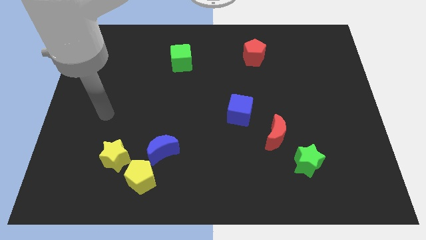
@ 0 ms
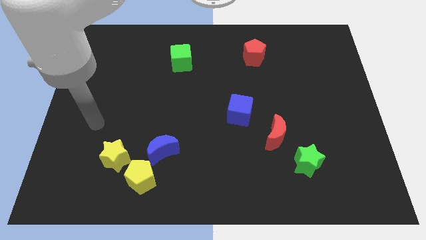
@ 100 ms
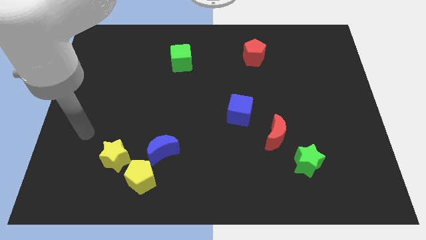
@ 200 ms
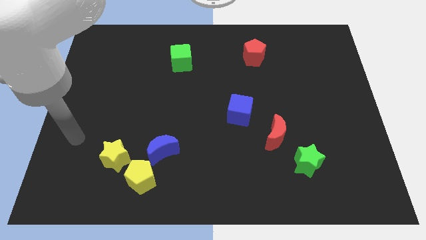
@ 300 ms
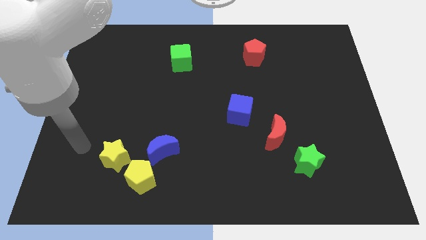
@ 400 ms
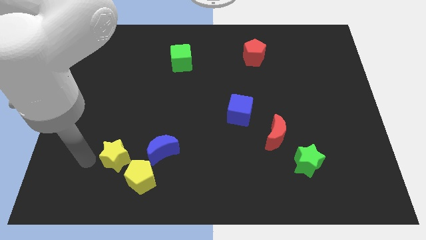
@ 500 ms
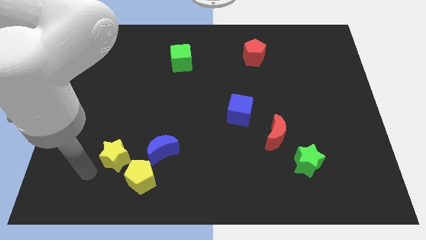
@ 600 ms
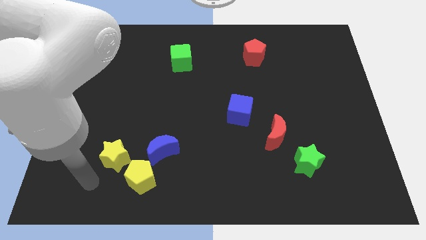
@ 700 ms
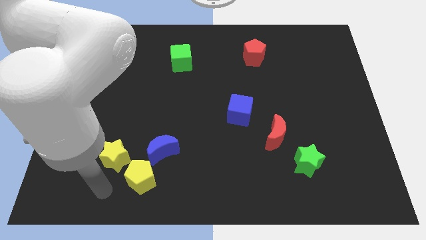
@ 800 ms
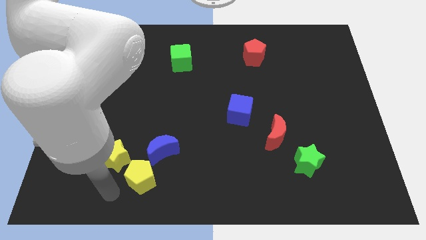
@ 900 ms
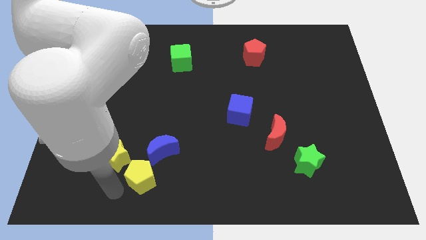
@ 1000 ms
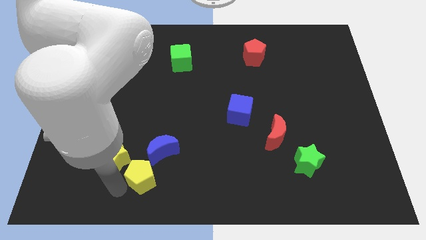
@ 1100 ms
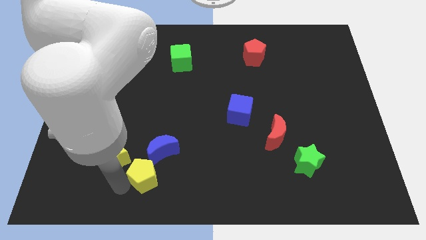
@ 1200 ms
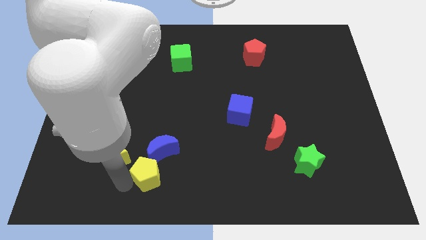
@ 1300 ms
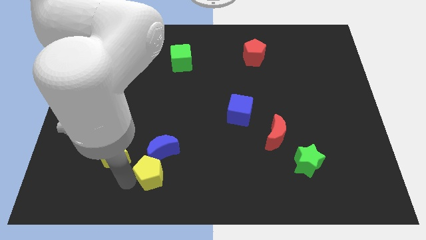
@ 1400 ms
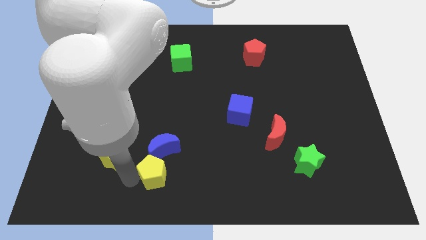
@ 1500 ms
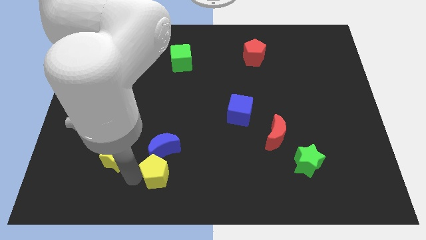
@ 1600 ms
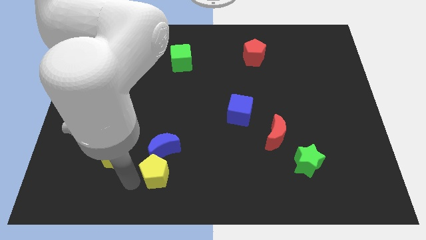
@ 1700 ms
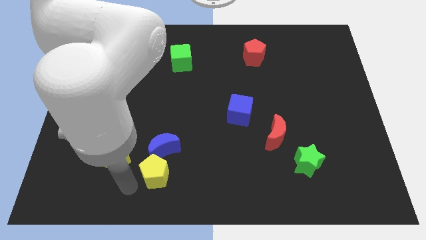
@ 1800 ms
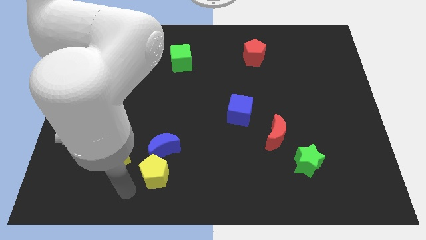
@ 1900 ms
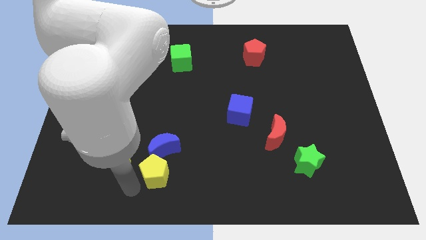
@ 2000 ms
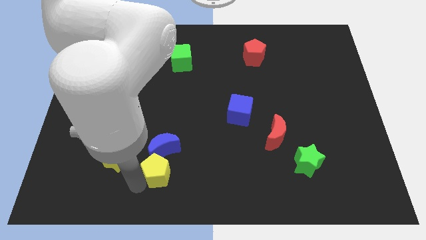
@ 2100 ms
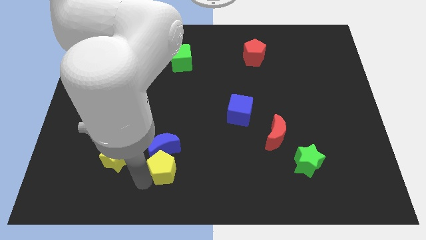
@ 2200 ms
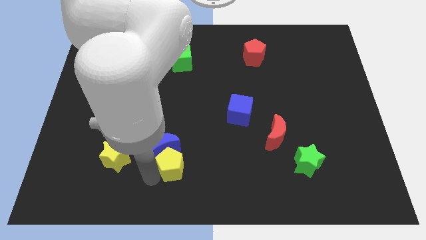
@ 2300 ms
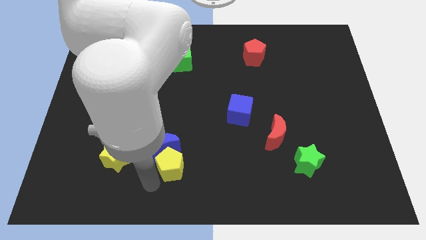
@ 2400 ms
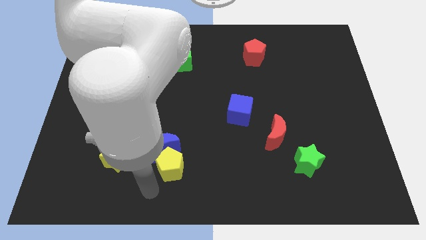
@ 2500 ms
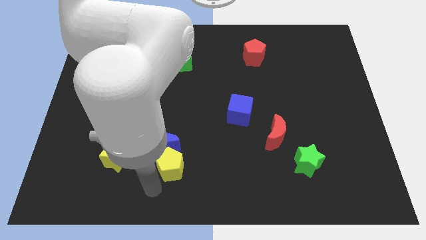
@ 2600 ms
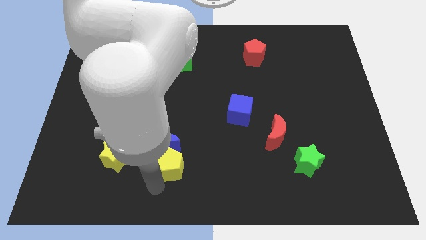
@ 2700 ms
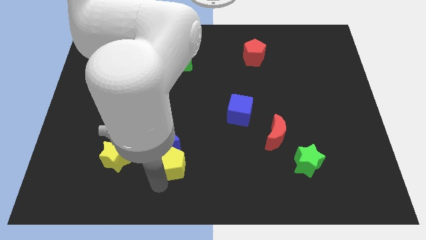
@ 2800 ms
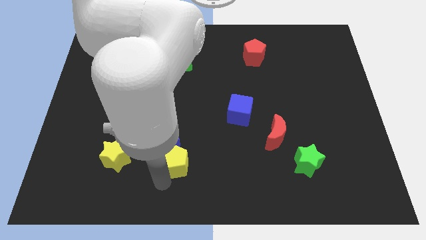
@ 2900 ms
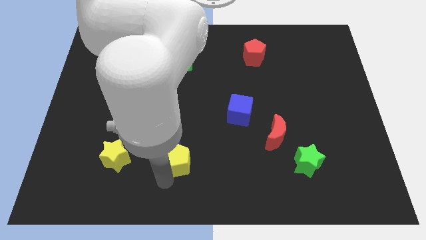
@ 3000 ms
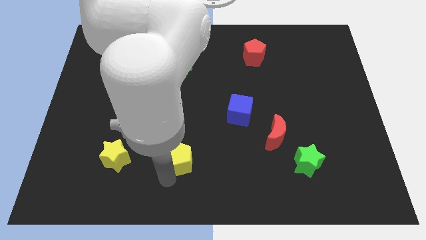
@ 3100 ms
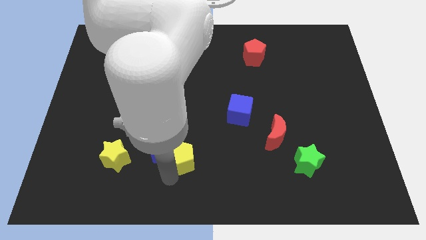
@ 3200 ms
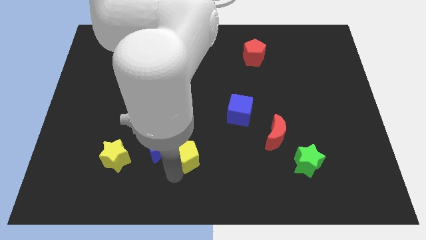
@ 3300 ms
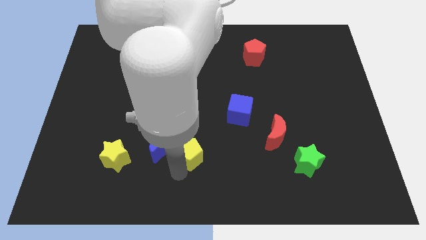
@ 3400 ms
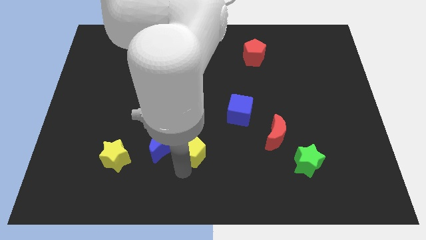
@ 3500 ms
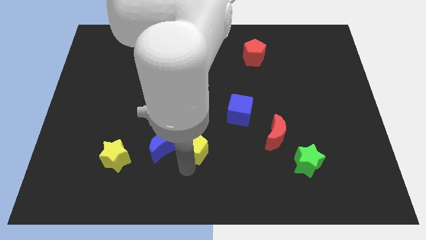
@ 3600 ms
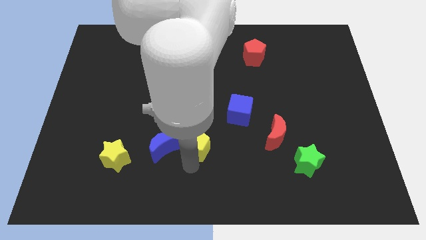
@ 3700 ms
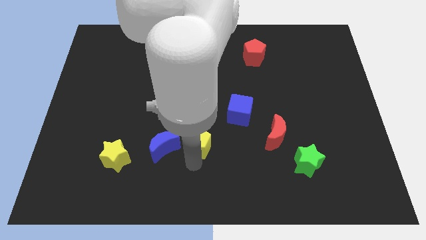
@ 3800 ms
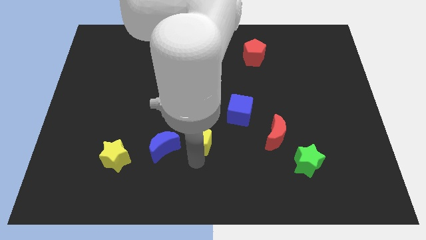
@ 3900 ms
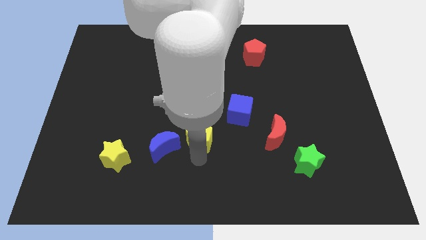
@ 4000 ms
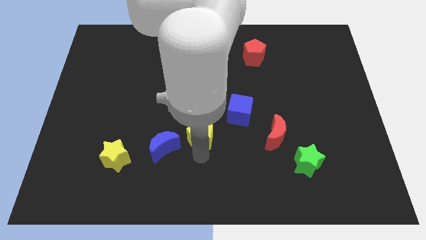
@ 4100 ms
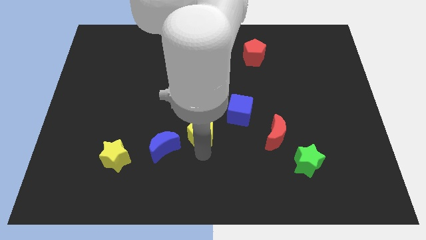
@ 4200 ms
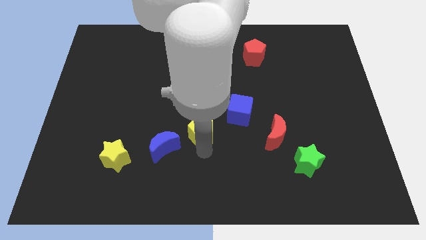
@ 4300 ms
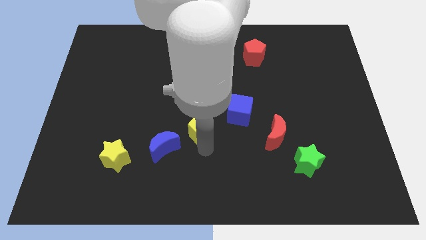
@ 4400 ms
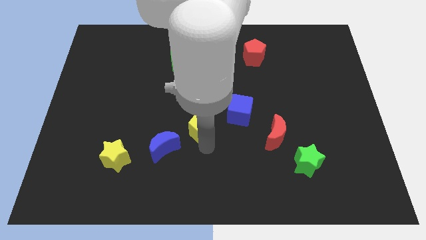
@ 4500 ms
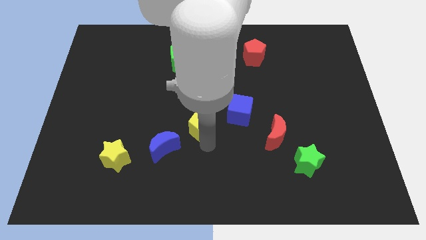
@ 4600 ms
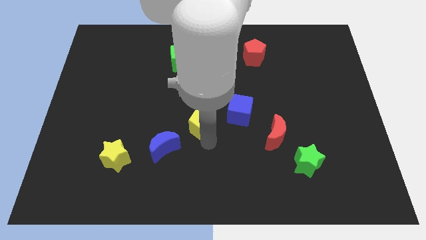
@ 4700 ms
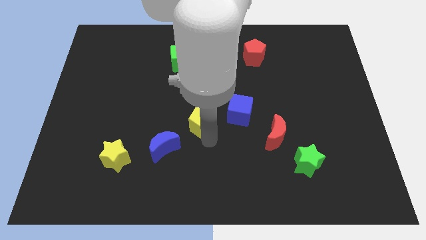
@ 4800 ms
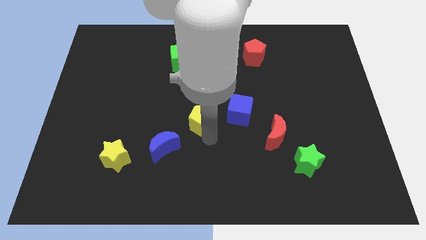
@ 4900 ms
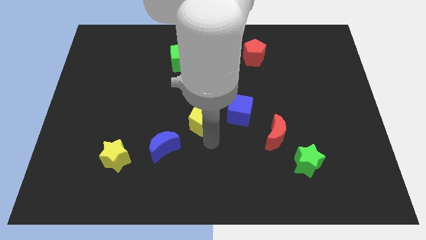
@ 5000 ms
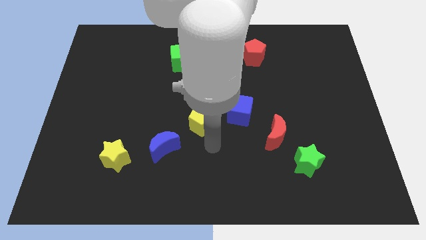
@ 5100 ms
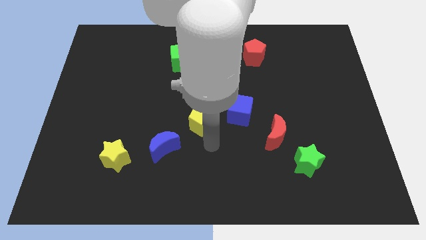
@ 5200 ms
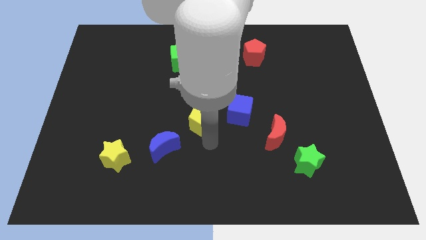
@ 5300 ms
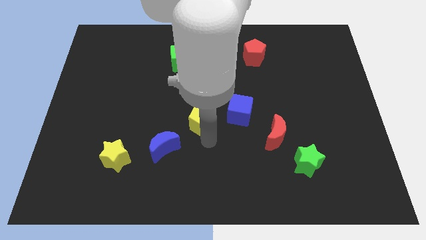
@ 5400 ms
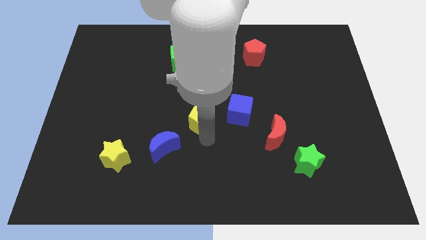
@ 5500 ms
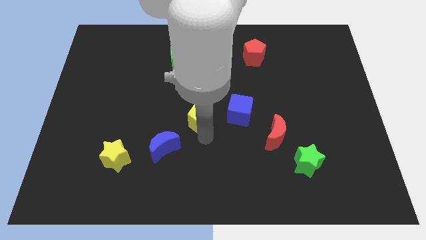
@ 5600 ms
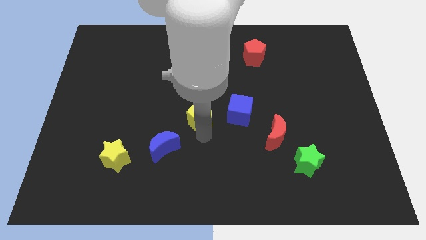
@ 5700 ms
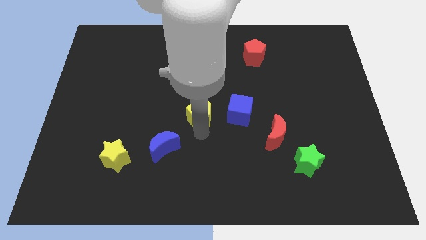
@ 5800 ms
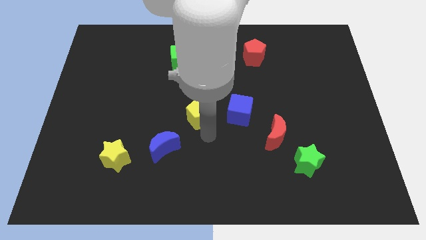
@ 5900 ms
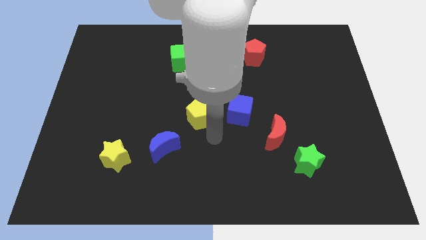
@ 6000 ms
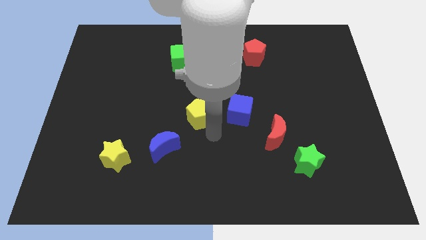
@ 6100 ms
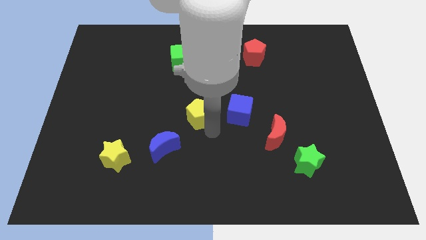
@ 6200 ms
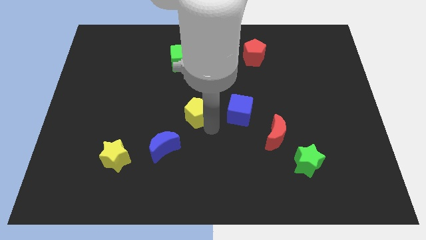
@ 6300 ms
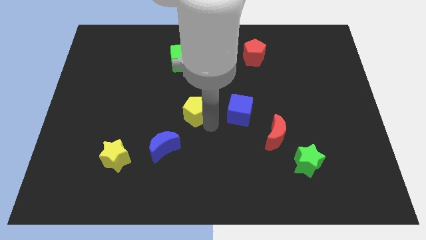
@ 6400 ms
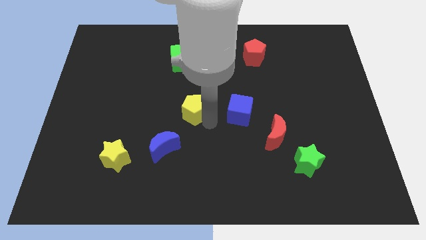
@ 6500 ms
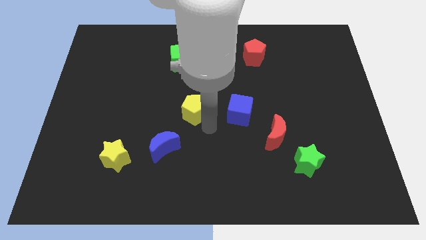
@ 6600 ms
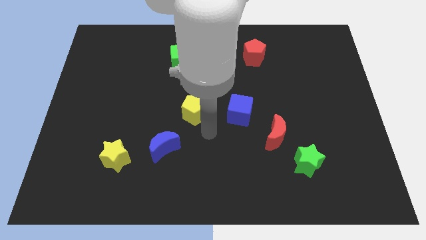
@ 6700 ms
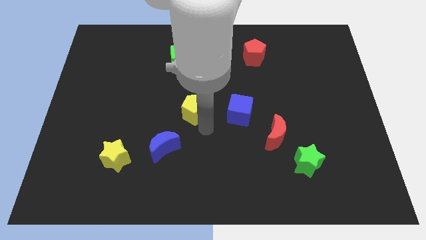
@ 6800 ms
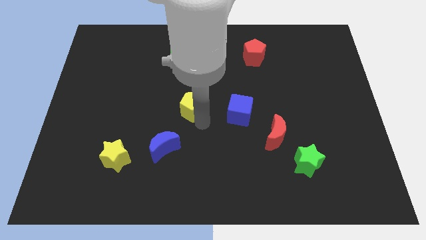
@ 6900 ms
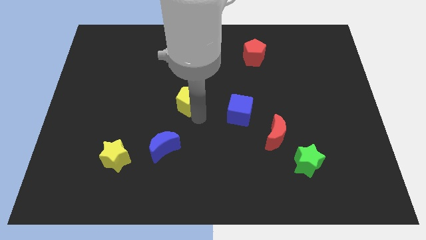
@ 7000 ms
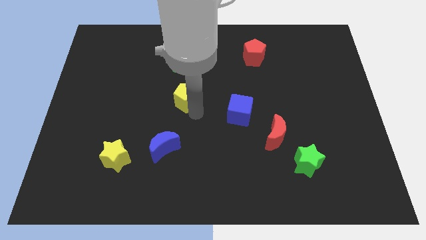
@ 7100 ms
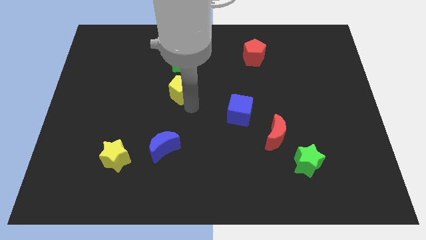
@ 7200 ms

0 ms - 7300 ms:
push the yellow pentagon upwards

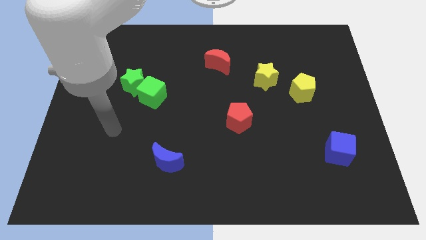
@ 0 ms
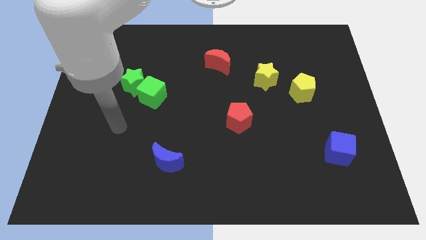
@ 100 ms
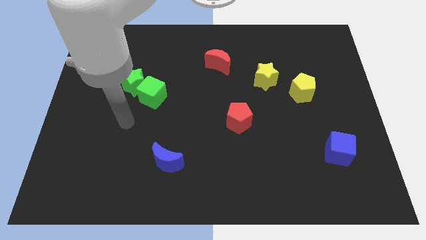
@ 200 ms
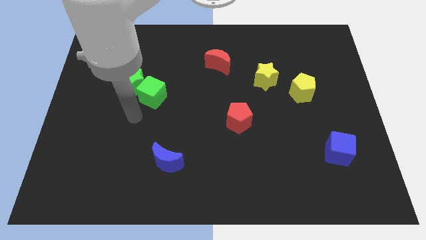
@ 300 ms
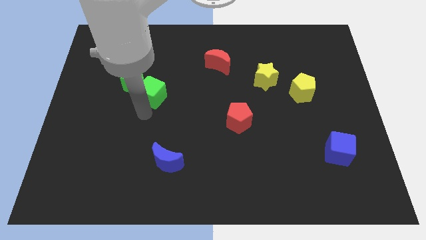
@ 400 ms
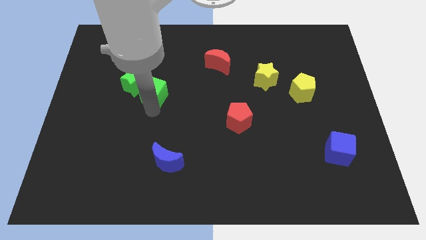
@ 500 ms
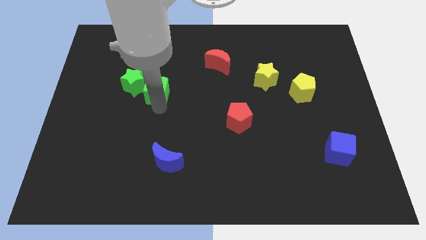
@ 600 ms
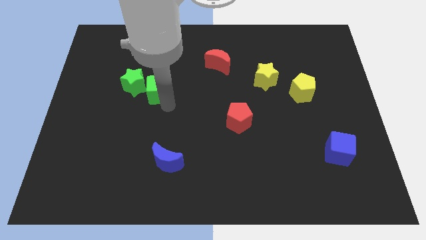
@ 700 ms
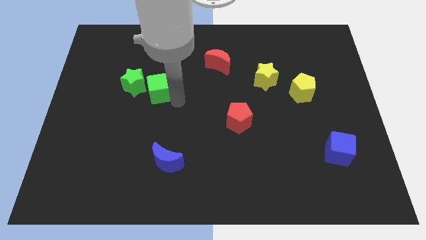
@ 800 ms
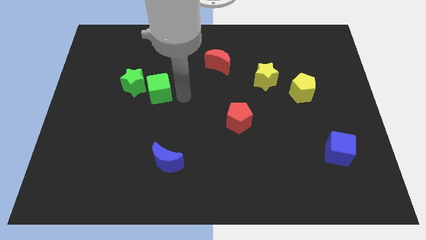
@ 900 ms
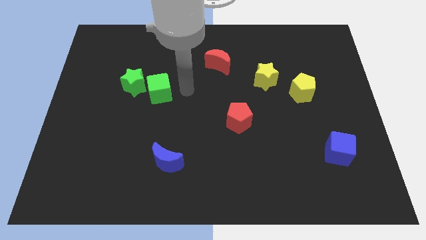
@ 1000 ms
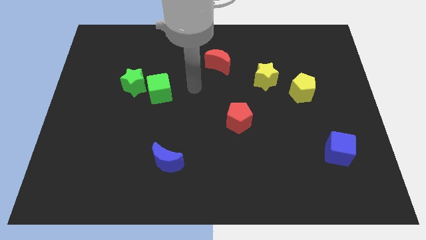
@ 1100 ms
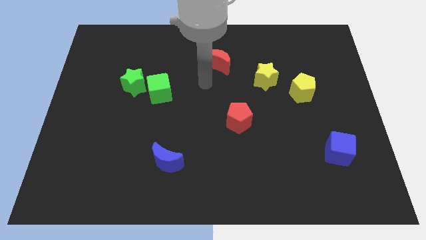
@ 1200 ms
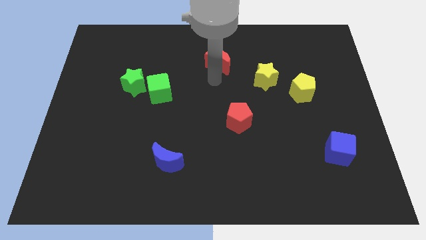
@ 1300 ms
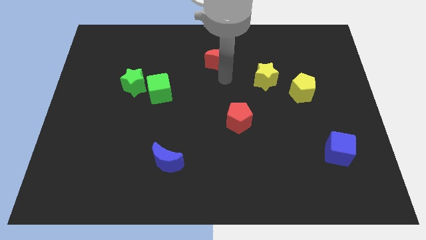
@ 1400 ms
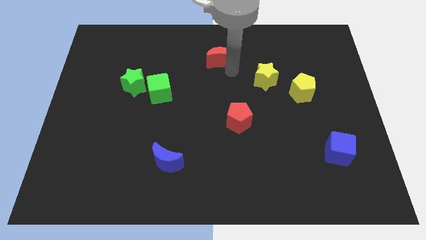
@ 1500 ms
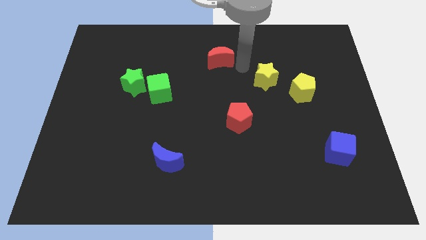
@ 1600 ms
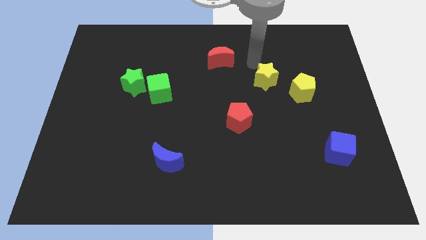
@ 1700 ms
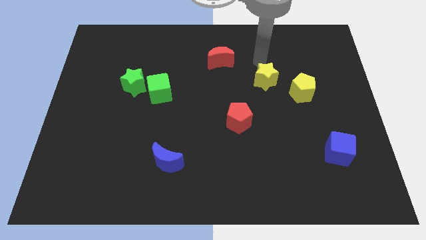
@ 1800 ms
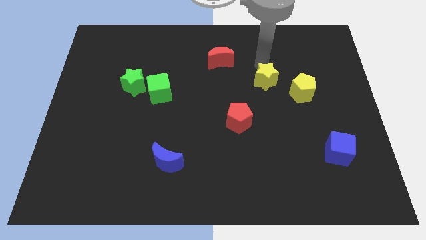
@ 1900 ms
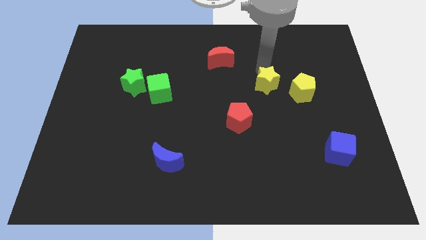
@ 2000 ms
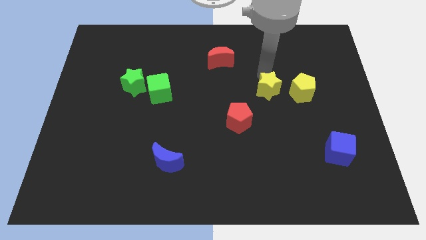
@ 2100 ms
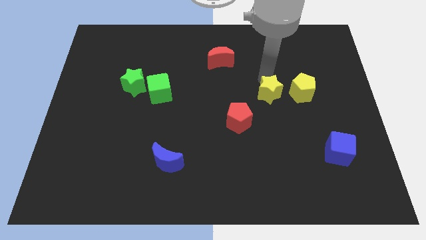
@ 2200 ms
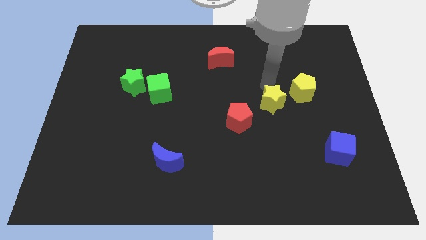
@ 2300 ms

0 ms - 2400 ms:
slightly slide the yellow star downwards
